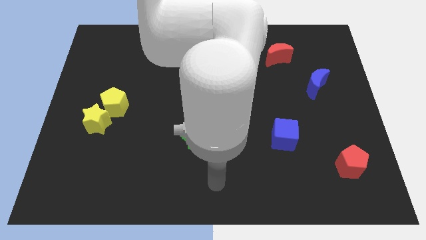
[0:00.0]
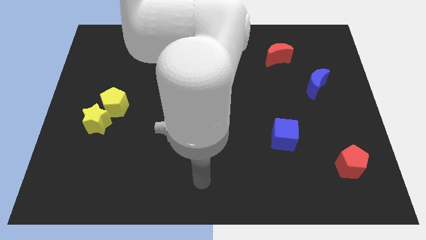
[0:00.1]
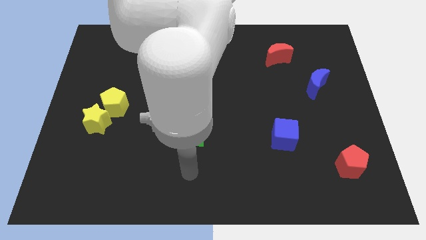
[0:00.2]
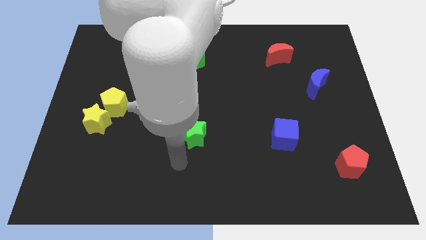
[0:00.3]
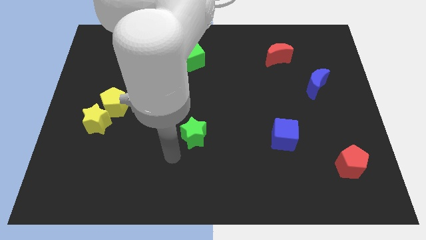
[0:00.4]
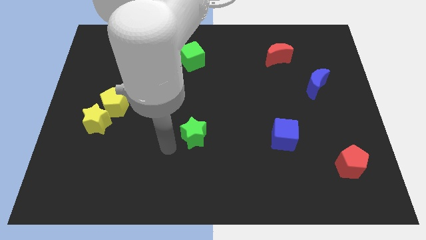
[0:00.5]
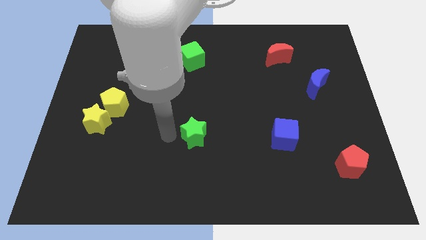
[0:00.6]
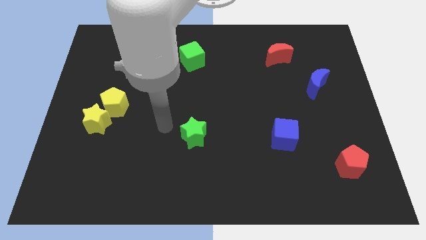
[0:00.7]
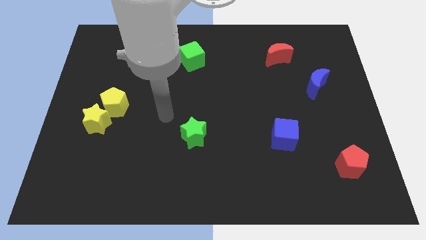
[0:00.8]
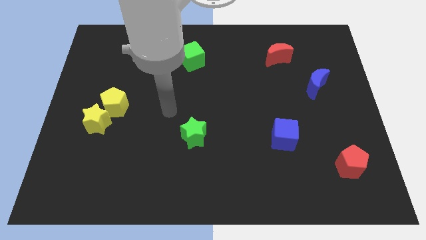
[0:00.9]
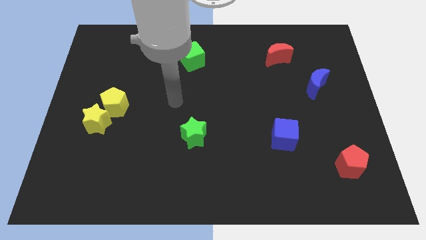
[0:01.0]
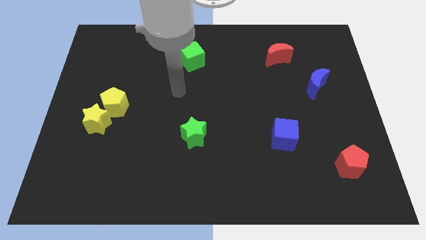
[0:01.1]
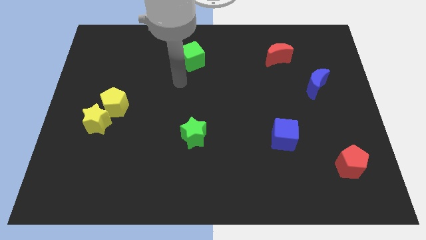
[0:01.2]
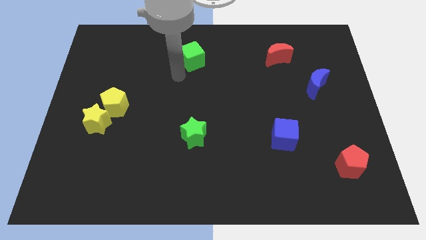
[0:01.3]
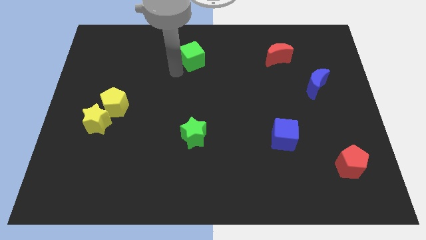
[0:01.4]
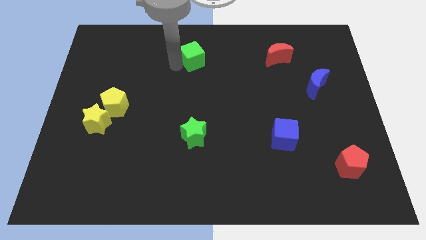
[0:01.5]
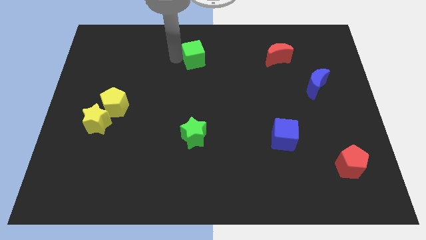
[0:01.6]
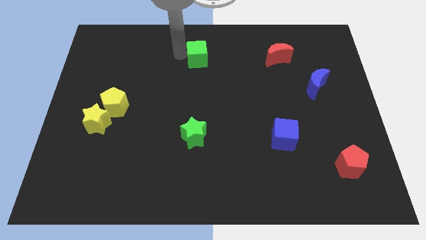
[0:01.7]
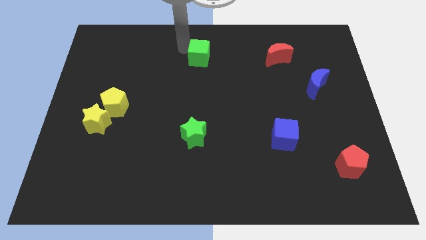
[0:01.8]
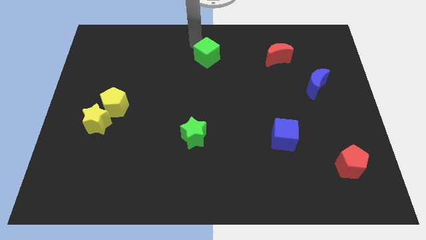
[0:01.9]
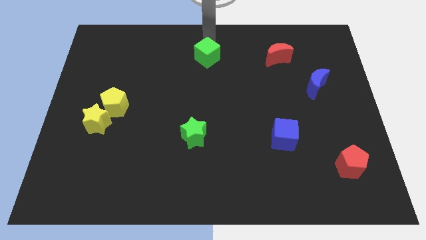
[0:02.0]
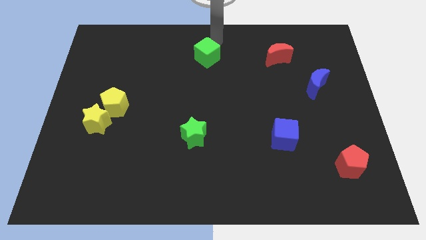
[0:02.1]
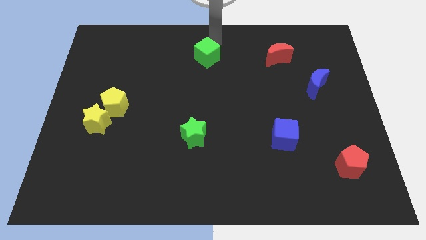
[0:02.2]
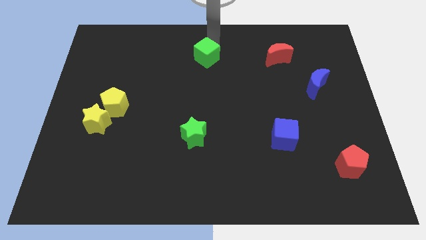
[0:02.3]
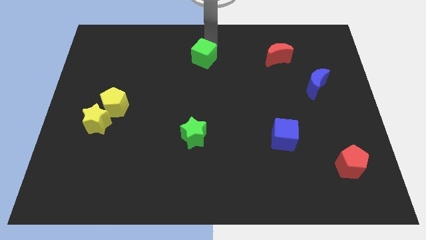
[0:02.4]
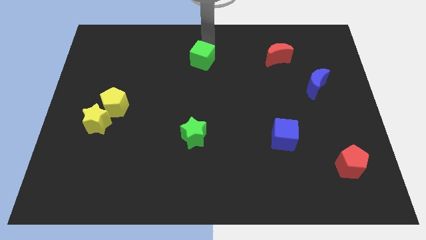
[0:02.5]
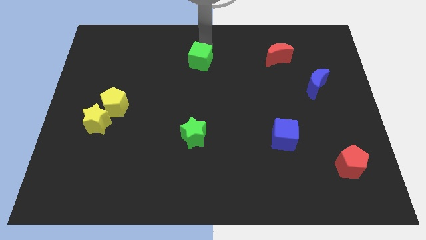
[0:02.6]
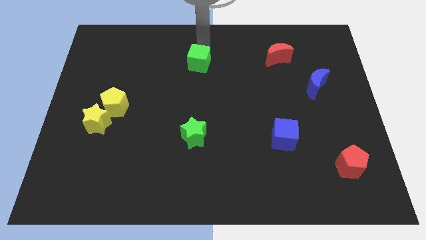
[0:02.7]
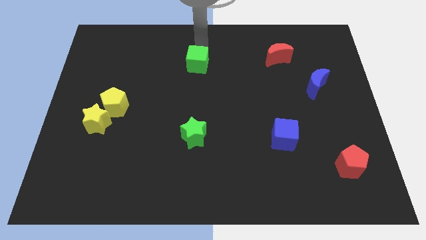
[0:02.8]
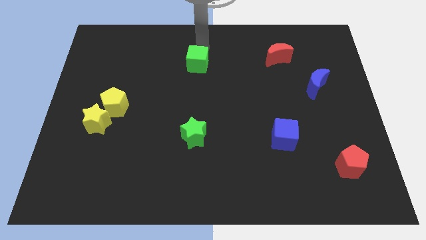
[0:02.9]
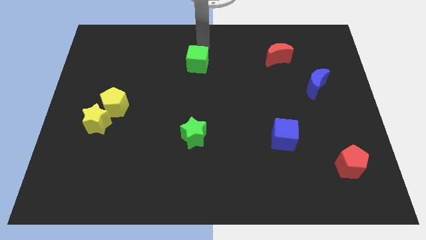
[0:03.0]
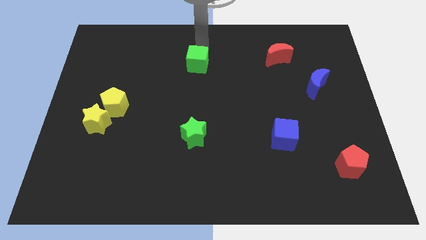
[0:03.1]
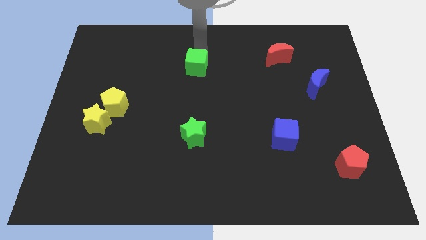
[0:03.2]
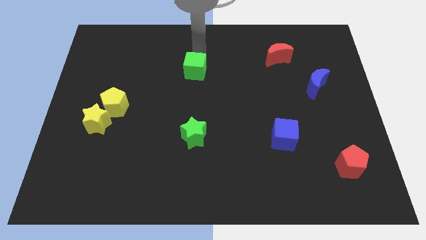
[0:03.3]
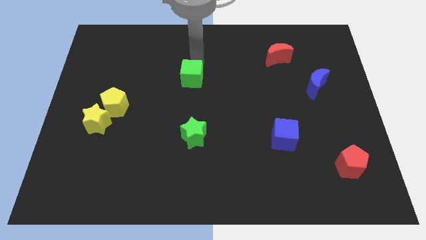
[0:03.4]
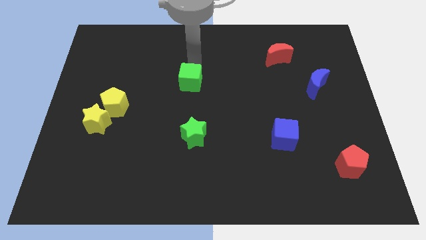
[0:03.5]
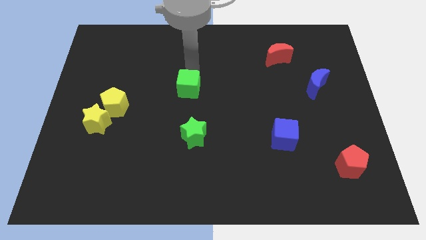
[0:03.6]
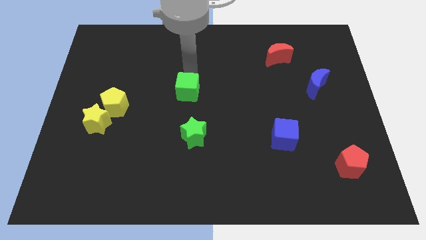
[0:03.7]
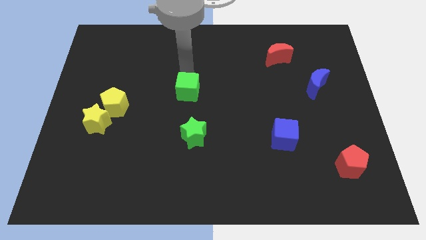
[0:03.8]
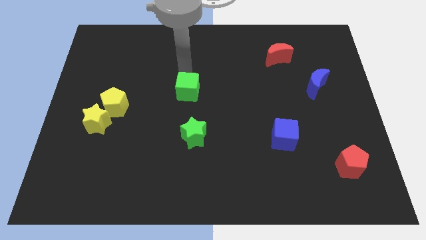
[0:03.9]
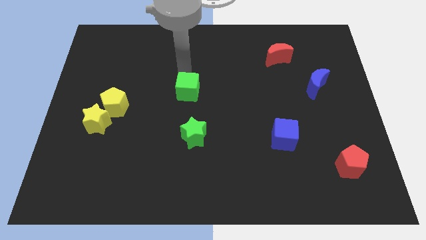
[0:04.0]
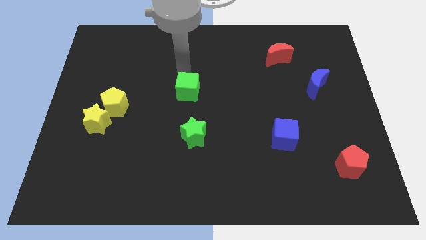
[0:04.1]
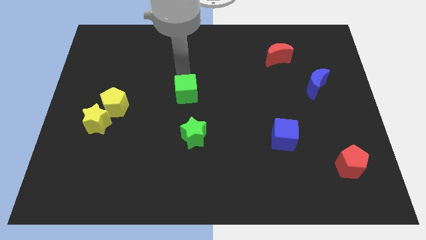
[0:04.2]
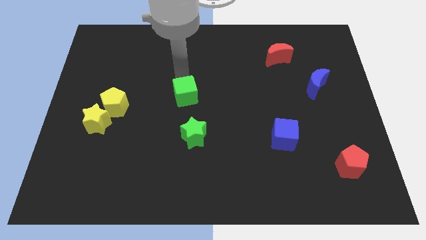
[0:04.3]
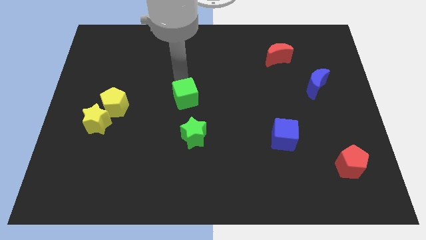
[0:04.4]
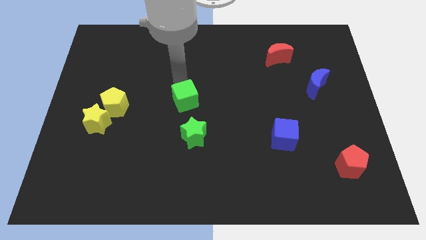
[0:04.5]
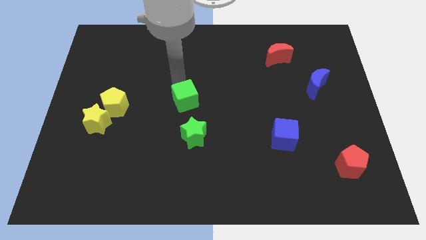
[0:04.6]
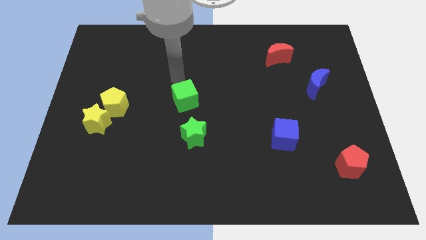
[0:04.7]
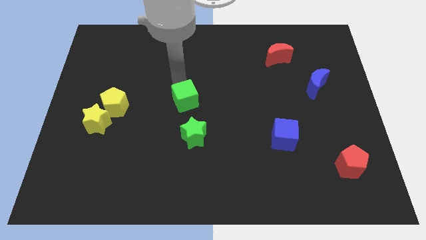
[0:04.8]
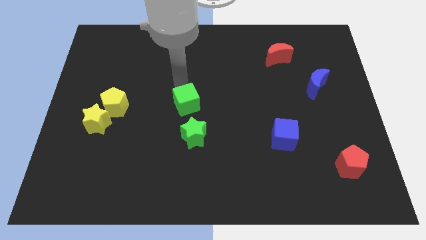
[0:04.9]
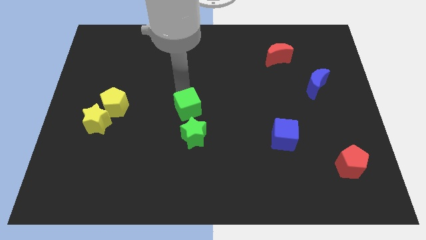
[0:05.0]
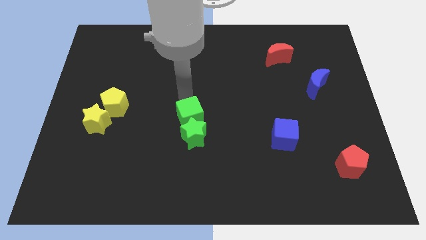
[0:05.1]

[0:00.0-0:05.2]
put the green cube towards the green star
